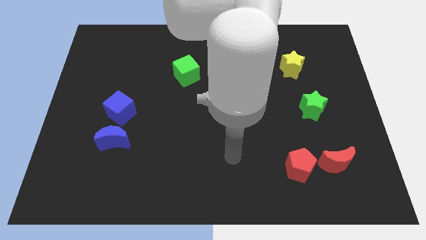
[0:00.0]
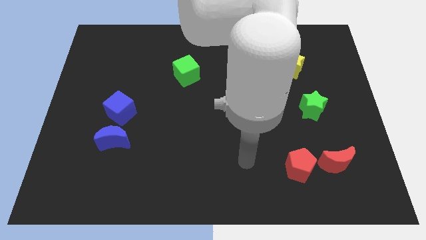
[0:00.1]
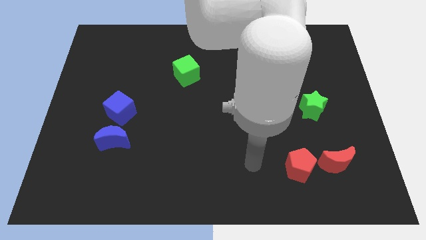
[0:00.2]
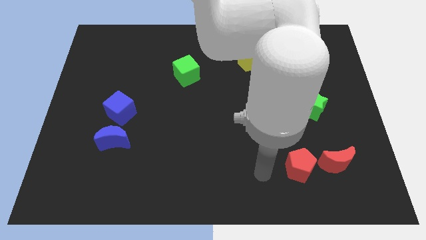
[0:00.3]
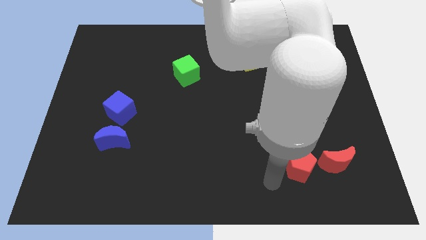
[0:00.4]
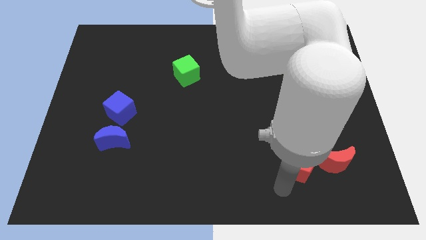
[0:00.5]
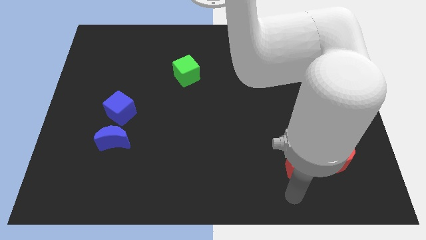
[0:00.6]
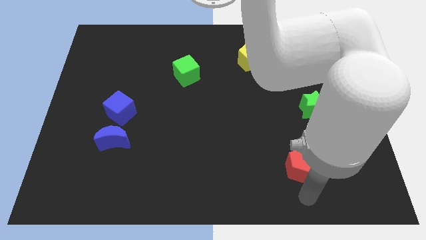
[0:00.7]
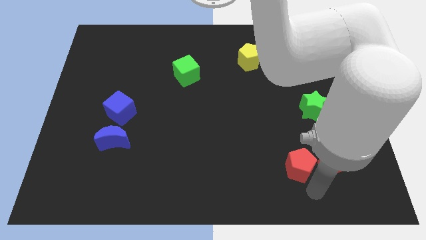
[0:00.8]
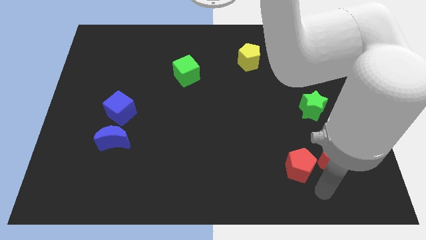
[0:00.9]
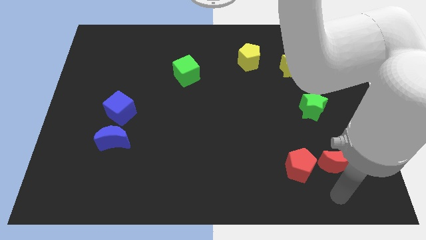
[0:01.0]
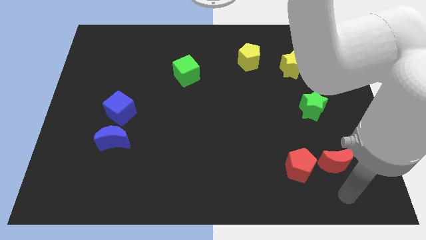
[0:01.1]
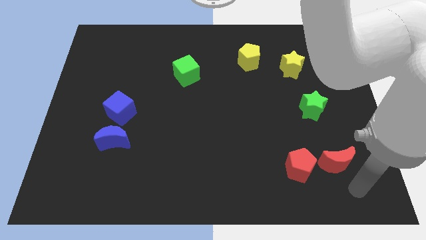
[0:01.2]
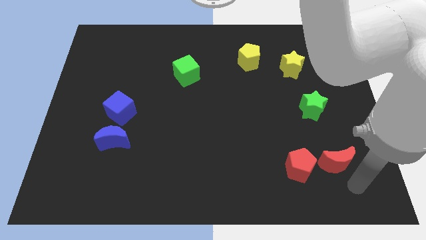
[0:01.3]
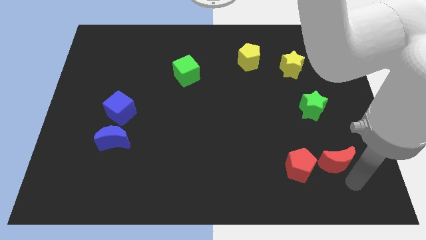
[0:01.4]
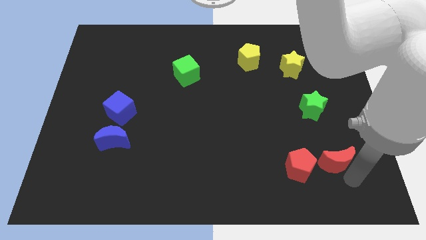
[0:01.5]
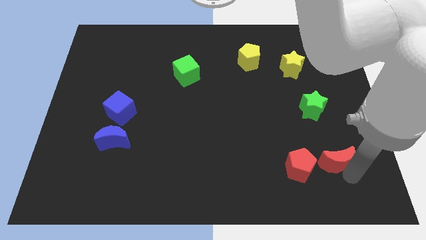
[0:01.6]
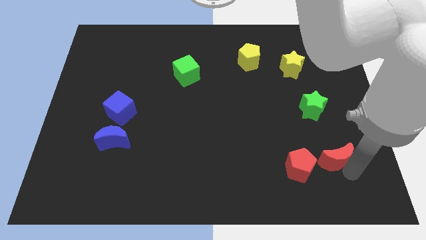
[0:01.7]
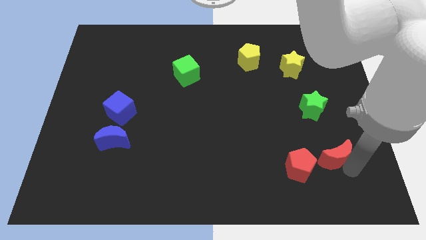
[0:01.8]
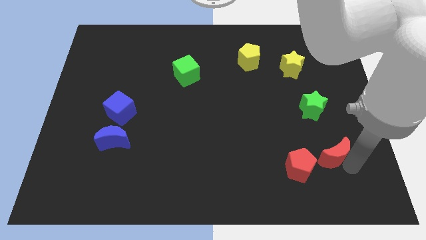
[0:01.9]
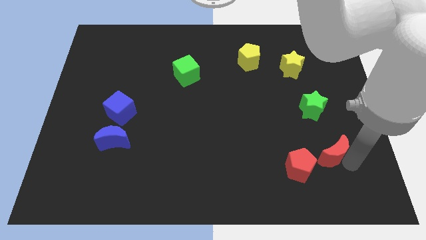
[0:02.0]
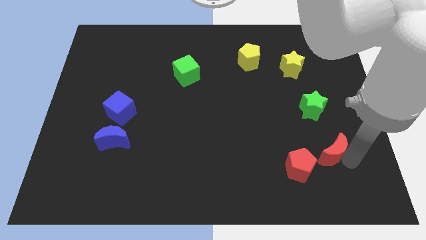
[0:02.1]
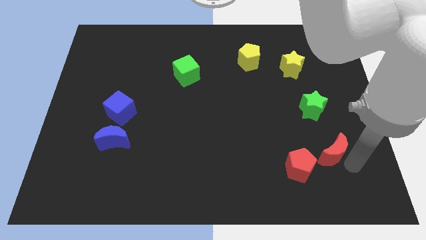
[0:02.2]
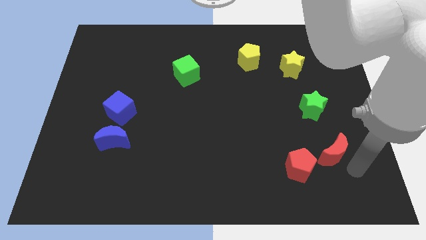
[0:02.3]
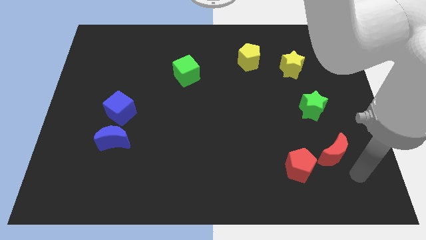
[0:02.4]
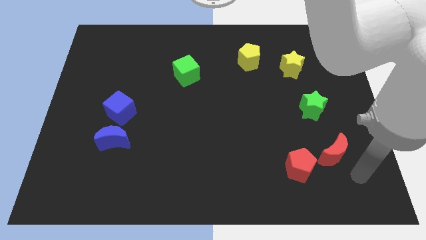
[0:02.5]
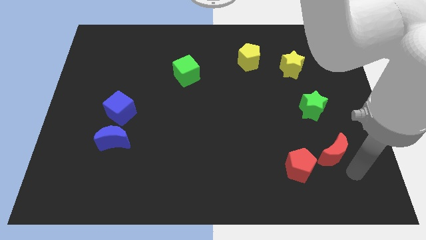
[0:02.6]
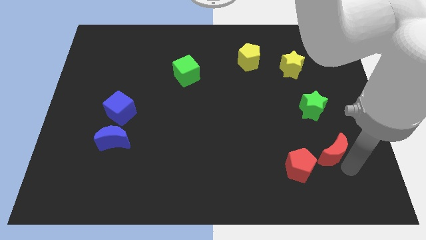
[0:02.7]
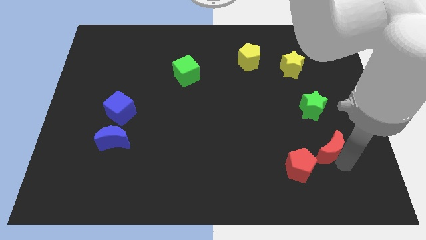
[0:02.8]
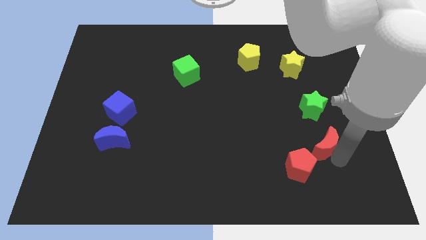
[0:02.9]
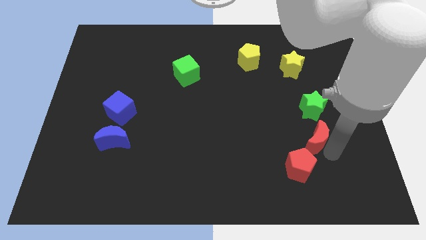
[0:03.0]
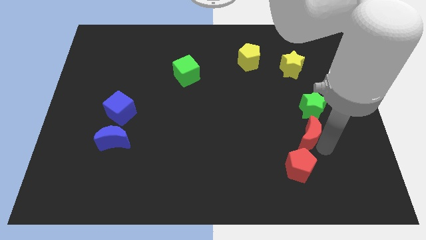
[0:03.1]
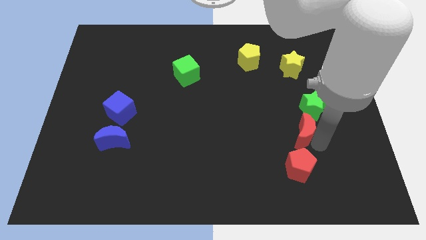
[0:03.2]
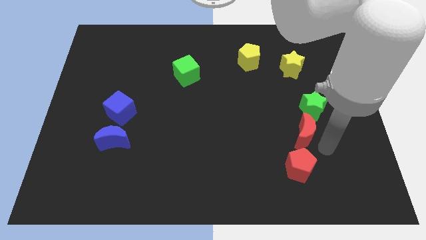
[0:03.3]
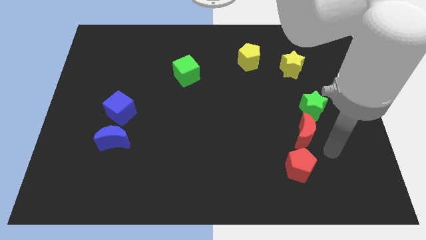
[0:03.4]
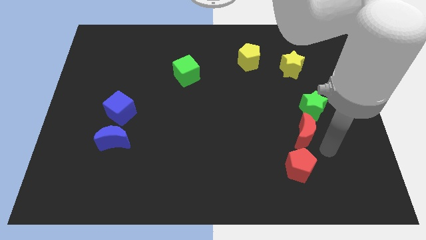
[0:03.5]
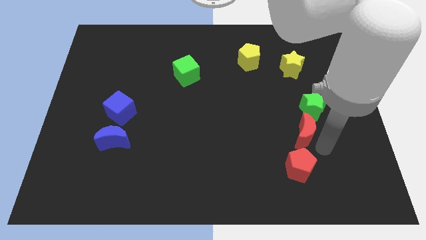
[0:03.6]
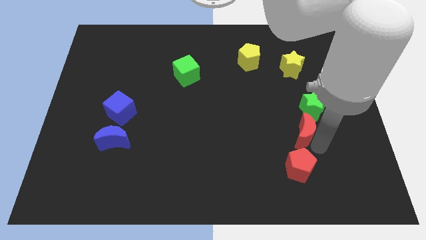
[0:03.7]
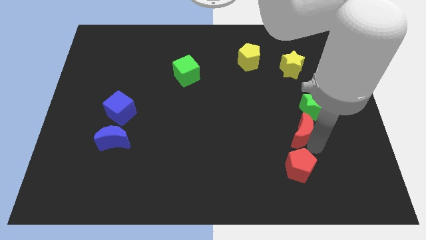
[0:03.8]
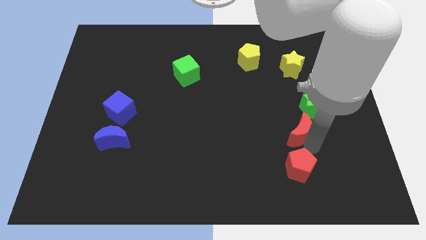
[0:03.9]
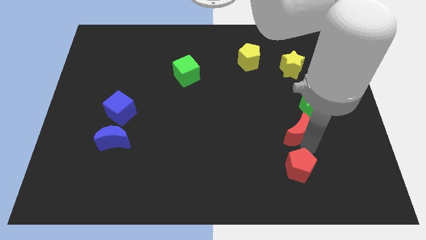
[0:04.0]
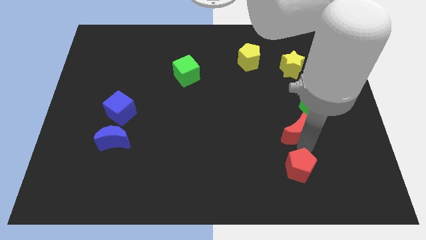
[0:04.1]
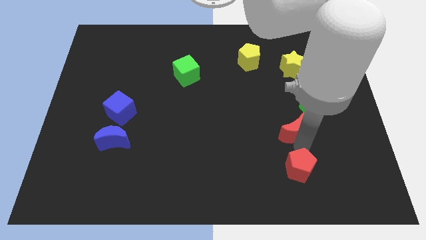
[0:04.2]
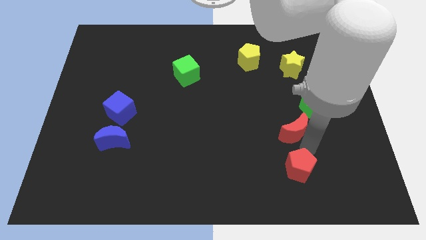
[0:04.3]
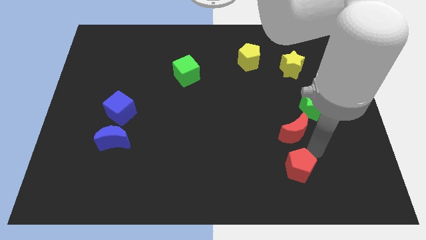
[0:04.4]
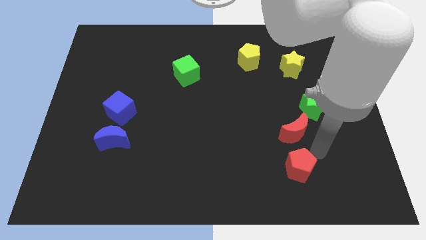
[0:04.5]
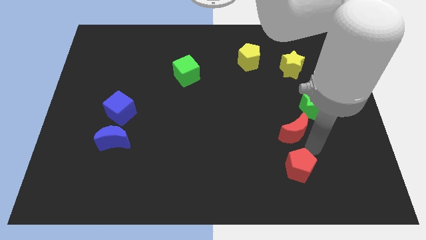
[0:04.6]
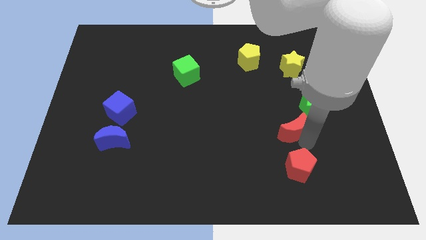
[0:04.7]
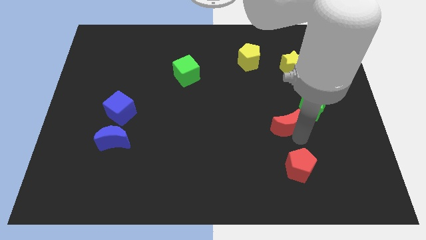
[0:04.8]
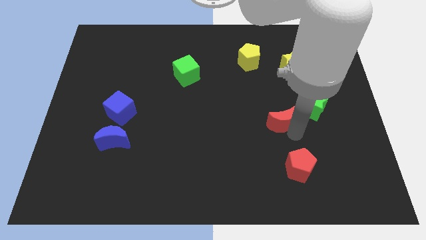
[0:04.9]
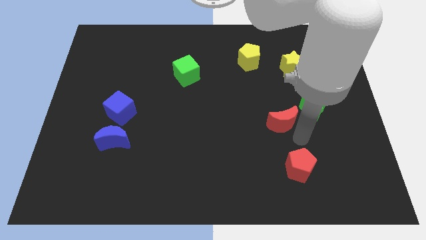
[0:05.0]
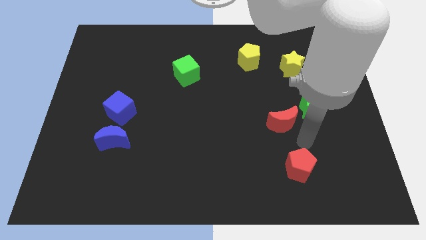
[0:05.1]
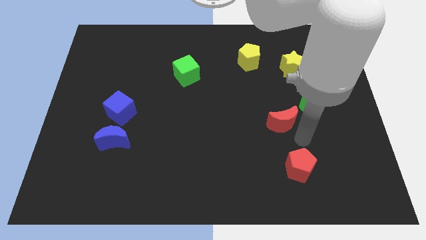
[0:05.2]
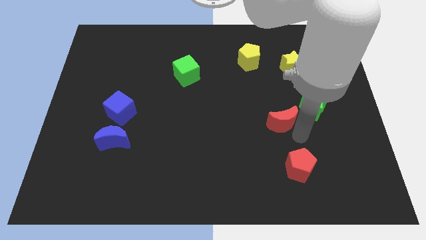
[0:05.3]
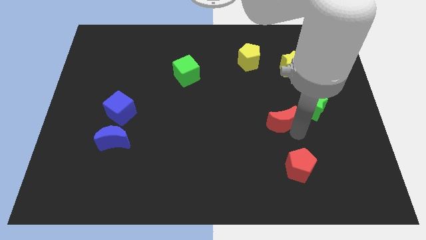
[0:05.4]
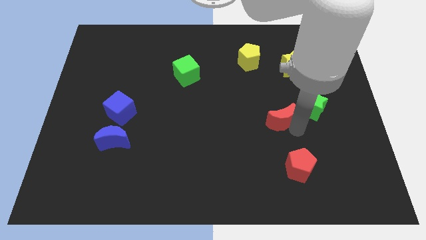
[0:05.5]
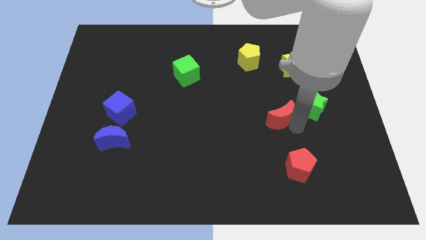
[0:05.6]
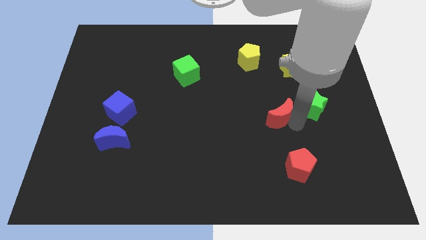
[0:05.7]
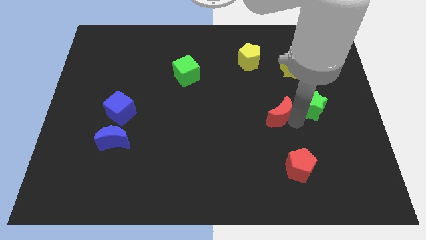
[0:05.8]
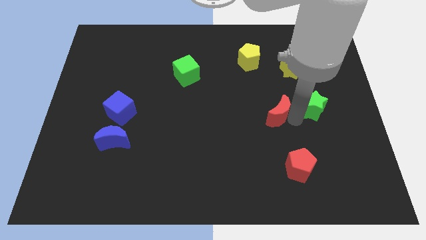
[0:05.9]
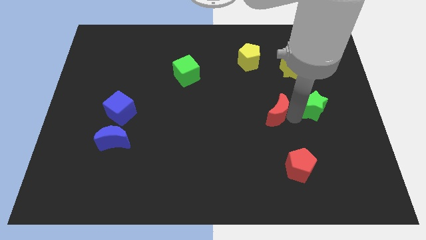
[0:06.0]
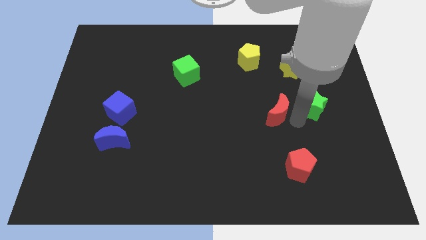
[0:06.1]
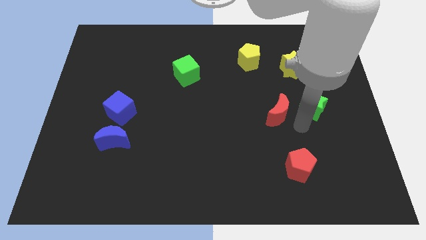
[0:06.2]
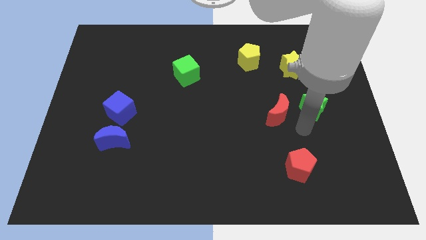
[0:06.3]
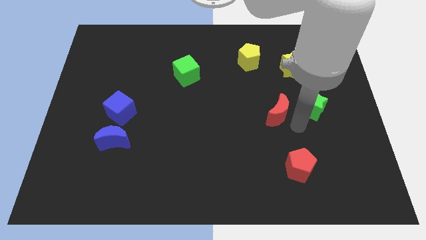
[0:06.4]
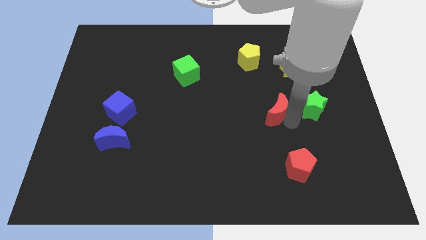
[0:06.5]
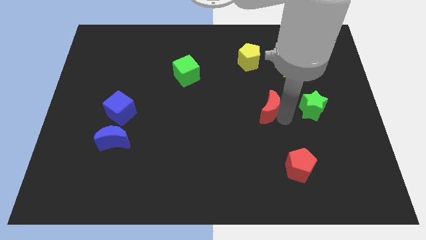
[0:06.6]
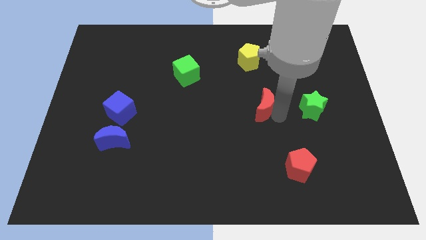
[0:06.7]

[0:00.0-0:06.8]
slide the red moon upwards and to the left diagonally

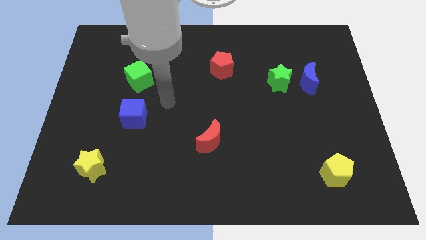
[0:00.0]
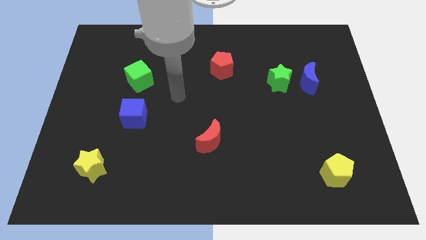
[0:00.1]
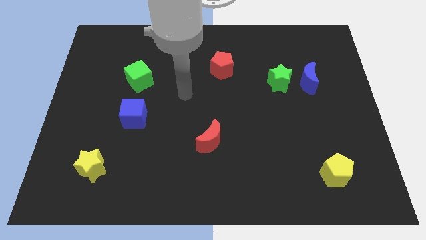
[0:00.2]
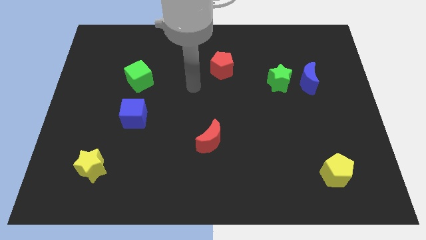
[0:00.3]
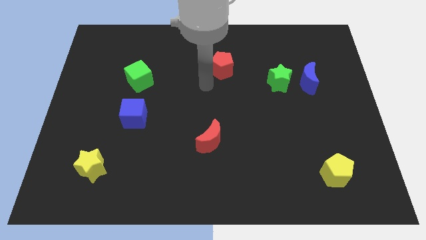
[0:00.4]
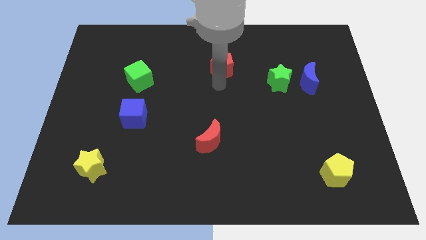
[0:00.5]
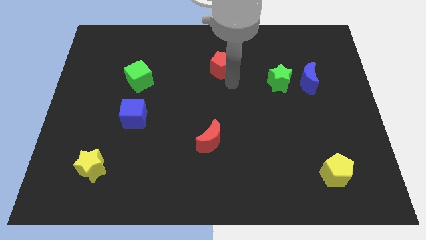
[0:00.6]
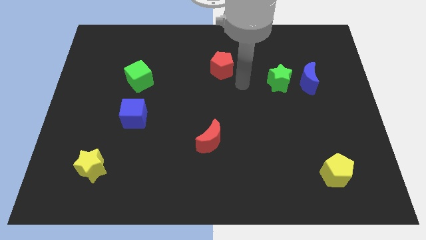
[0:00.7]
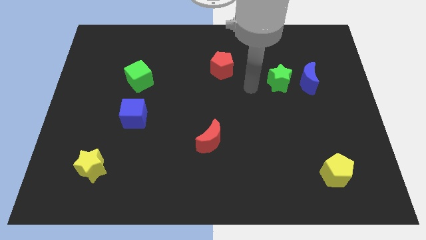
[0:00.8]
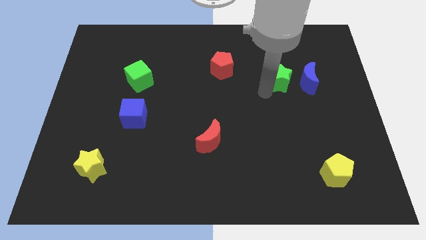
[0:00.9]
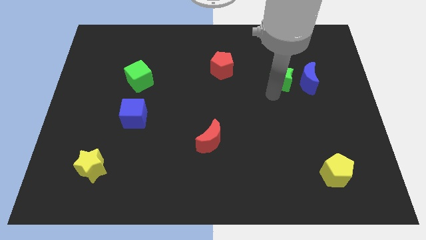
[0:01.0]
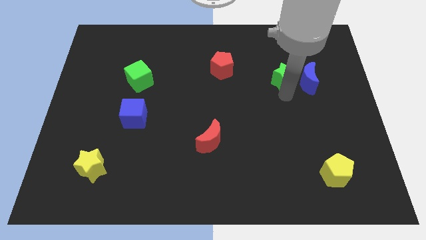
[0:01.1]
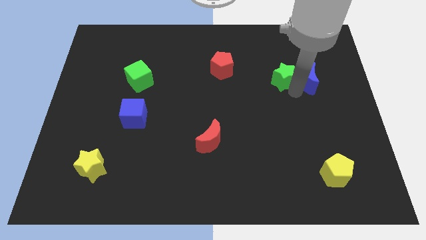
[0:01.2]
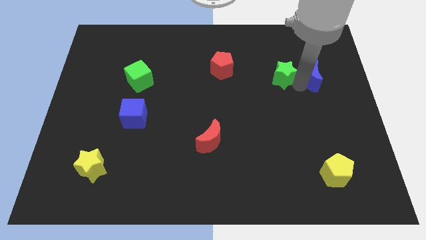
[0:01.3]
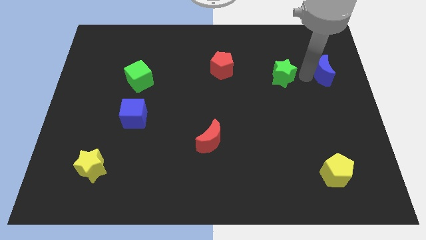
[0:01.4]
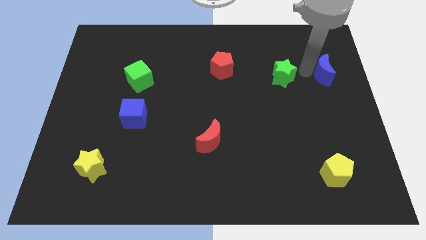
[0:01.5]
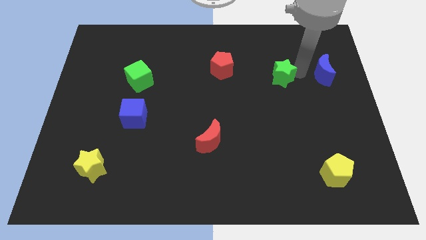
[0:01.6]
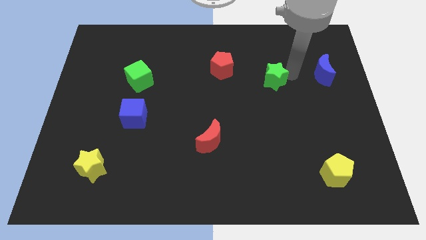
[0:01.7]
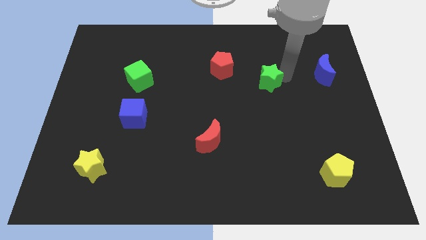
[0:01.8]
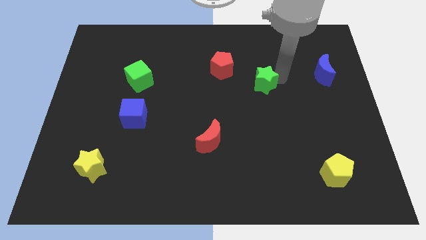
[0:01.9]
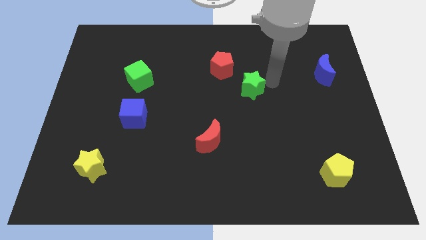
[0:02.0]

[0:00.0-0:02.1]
slide the green star to the left somewhat
